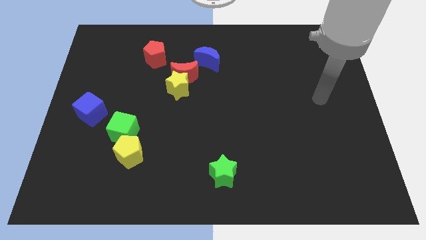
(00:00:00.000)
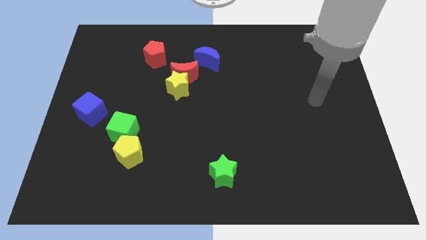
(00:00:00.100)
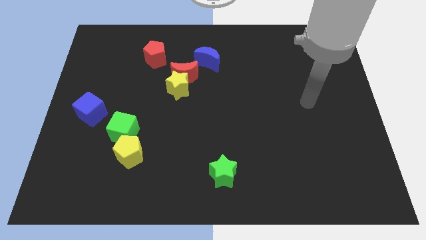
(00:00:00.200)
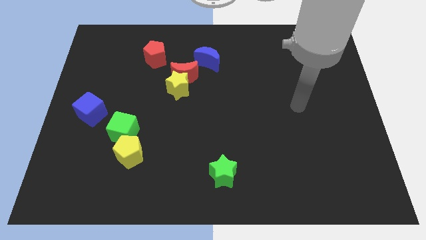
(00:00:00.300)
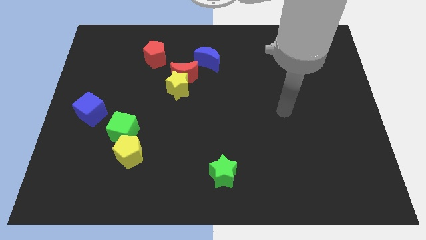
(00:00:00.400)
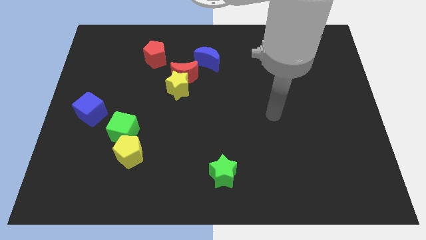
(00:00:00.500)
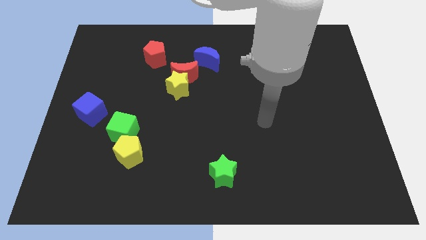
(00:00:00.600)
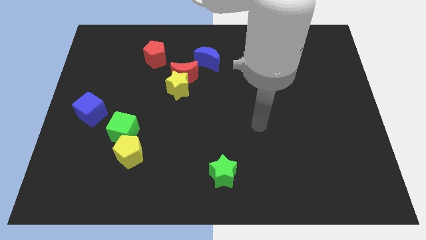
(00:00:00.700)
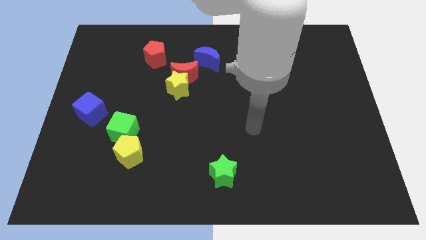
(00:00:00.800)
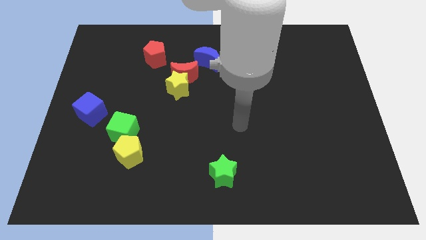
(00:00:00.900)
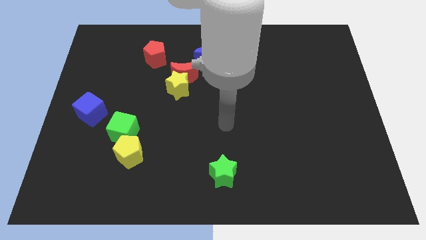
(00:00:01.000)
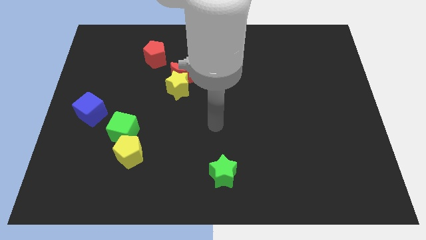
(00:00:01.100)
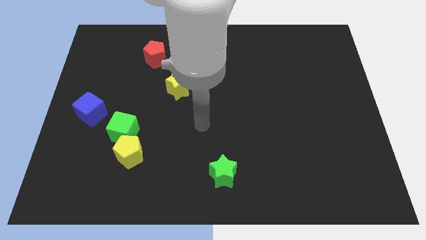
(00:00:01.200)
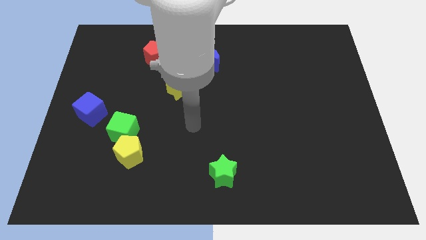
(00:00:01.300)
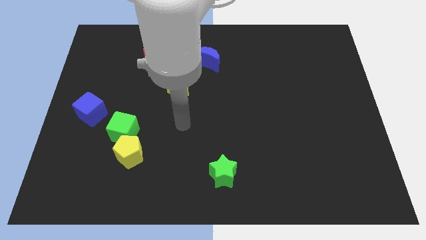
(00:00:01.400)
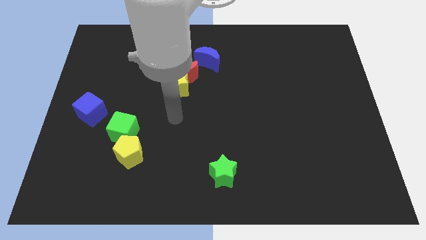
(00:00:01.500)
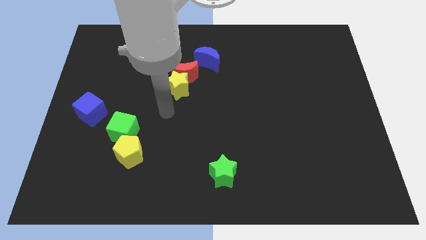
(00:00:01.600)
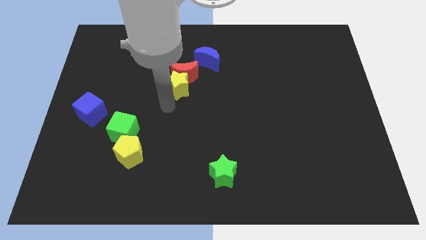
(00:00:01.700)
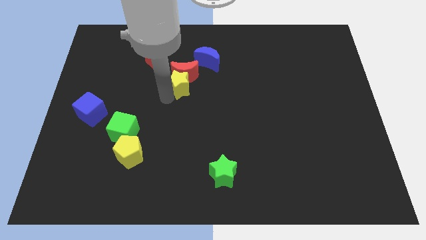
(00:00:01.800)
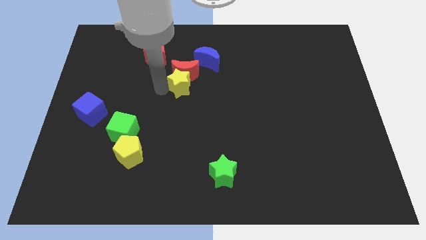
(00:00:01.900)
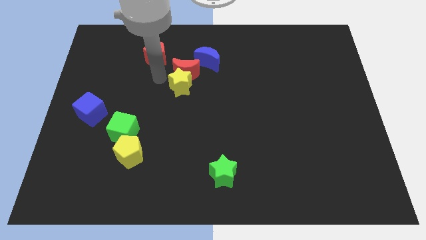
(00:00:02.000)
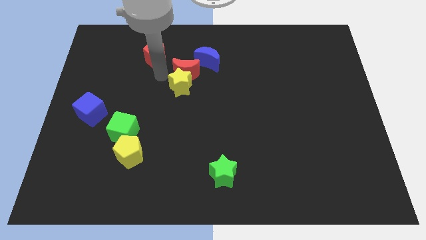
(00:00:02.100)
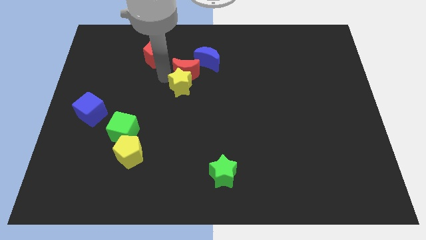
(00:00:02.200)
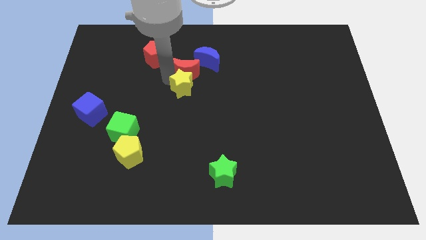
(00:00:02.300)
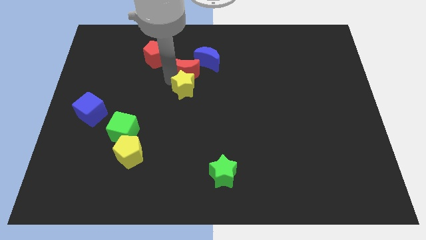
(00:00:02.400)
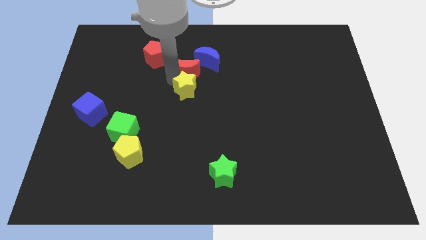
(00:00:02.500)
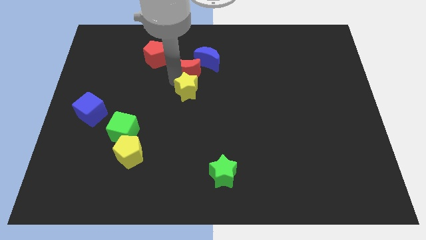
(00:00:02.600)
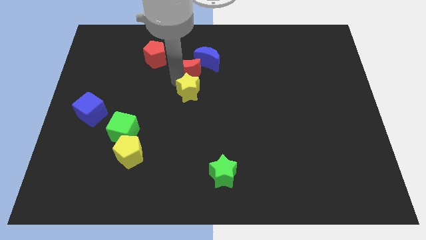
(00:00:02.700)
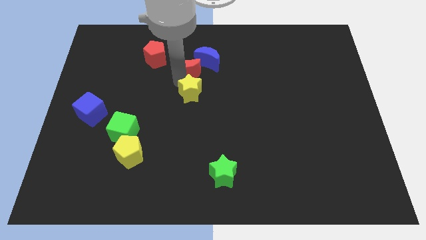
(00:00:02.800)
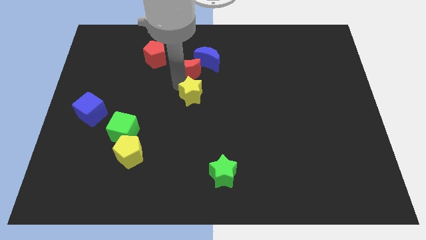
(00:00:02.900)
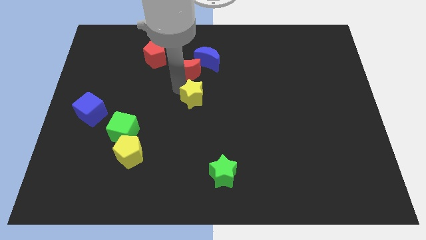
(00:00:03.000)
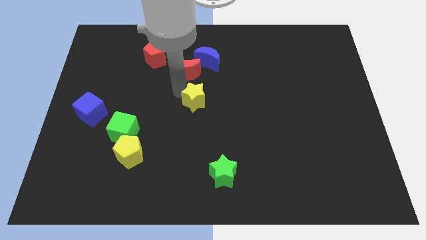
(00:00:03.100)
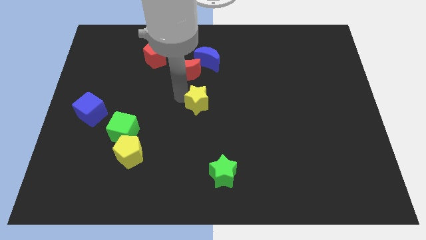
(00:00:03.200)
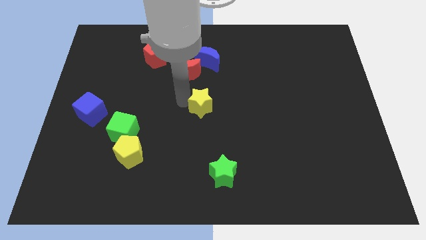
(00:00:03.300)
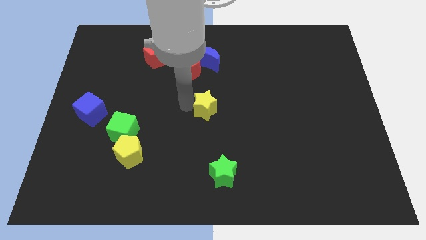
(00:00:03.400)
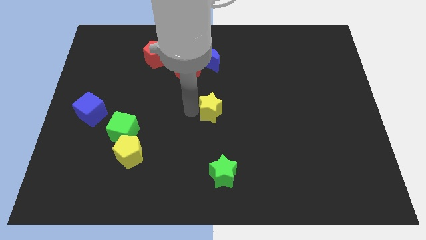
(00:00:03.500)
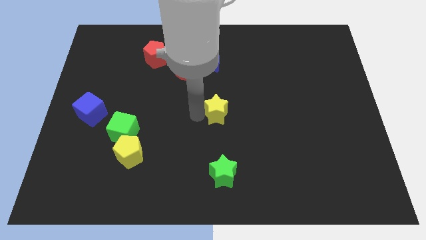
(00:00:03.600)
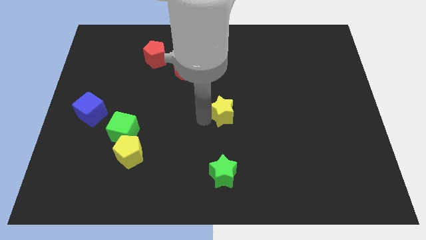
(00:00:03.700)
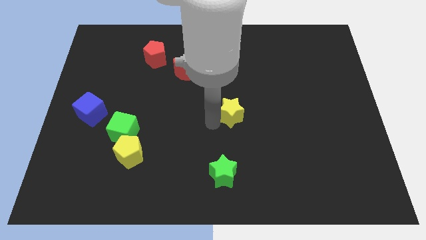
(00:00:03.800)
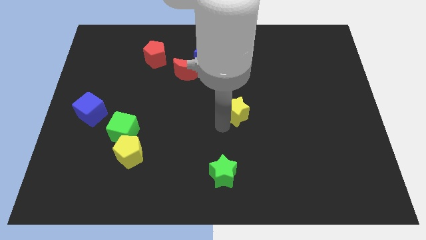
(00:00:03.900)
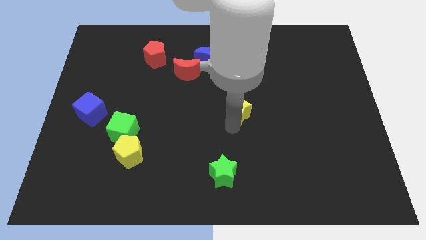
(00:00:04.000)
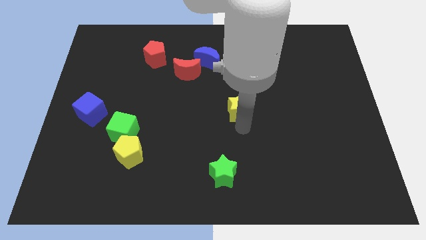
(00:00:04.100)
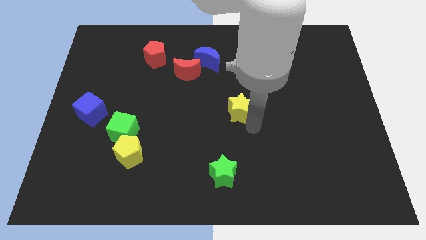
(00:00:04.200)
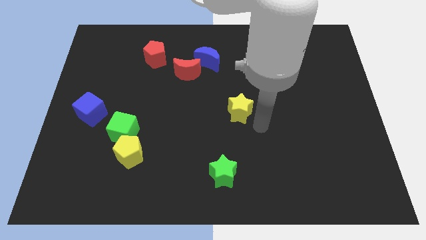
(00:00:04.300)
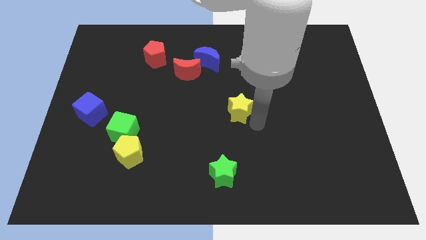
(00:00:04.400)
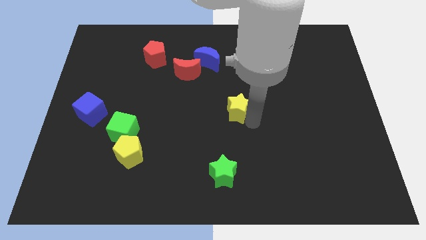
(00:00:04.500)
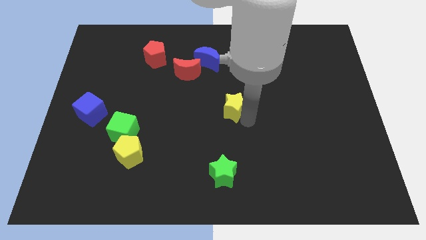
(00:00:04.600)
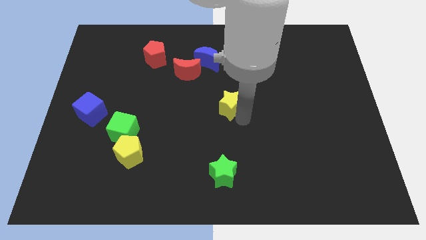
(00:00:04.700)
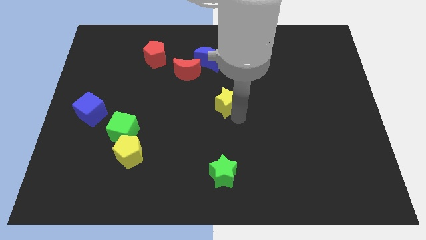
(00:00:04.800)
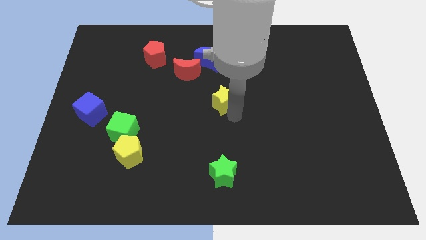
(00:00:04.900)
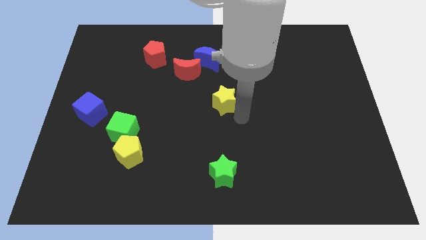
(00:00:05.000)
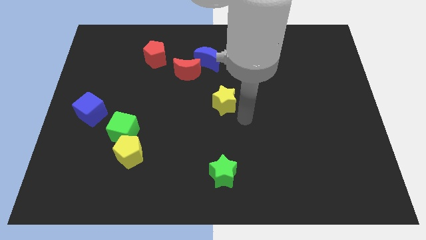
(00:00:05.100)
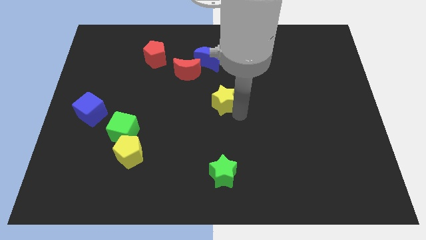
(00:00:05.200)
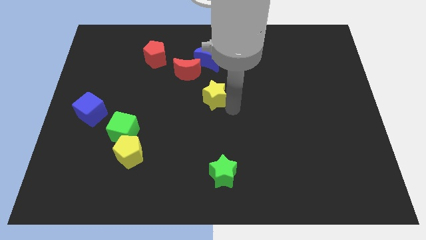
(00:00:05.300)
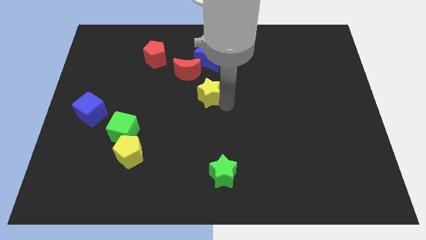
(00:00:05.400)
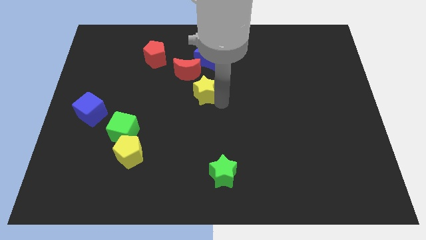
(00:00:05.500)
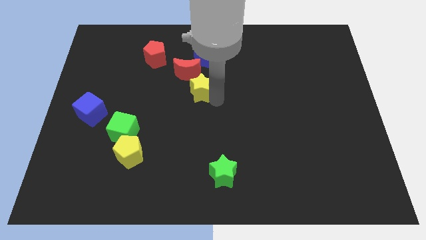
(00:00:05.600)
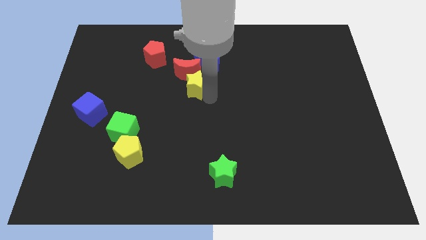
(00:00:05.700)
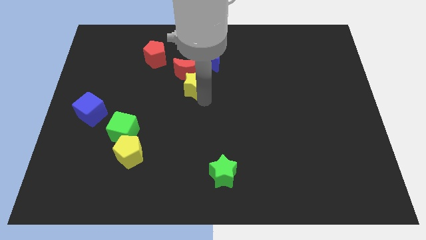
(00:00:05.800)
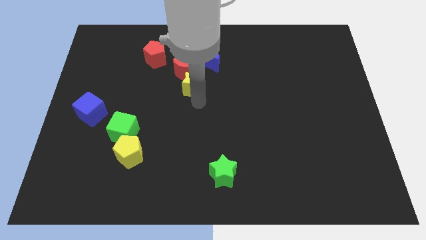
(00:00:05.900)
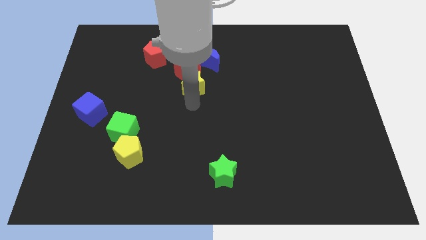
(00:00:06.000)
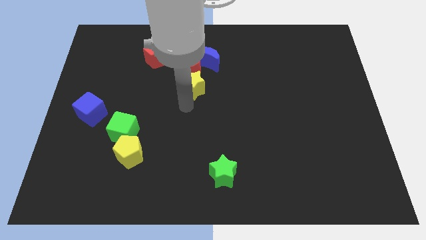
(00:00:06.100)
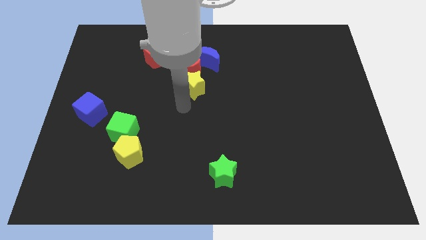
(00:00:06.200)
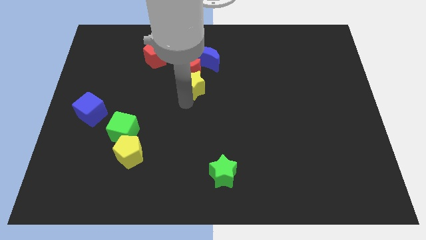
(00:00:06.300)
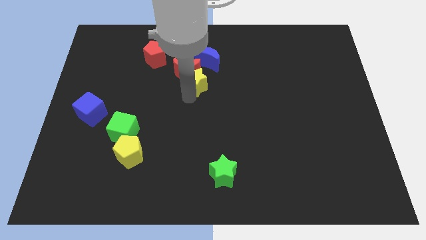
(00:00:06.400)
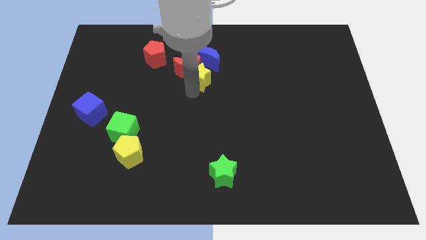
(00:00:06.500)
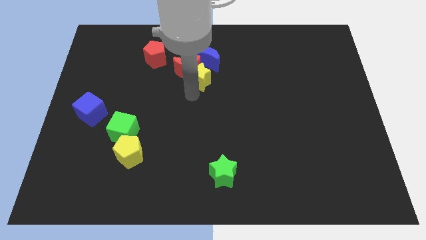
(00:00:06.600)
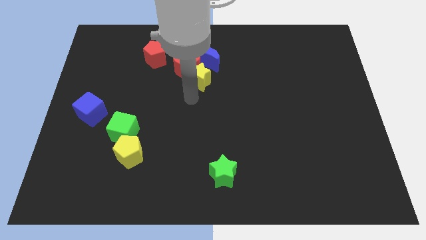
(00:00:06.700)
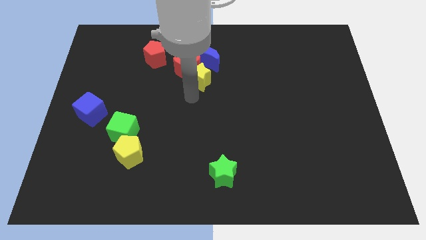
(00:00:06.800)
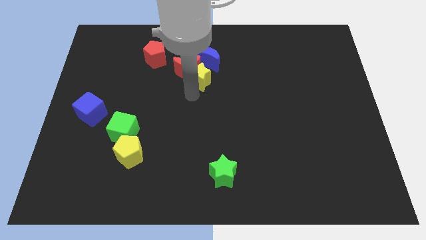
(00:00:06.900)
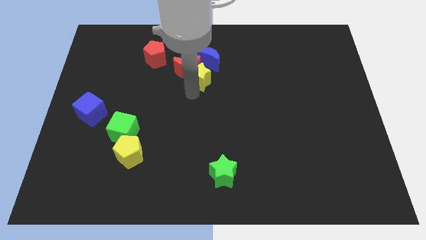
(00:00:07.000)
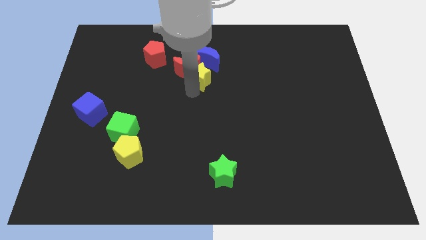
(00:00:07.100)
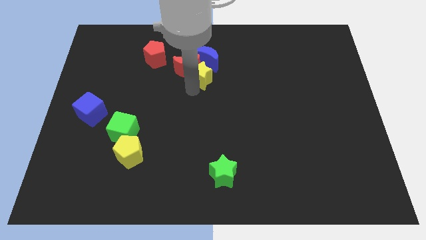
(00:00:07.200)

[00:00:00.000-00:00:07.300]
push the yellow star close to the blue moon

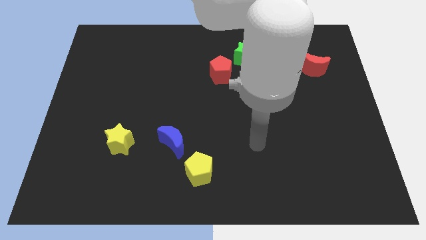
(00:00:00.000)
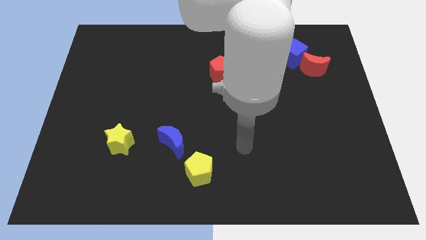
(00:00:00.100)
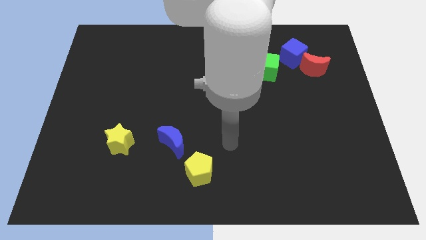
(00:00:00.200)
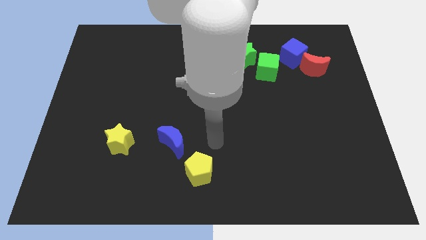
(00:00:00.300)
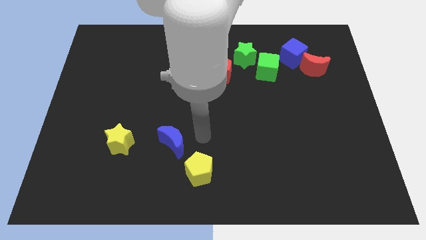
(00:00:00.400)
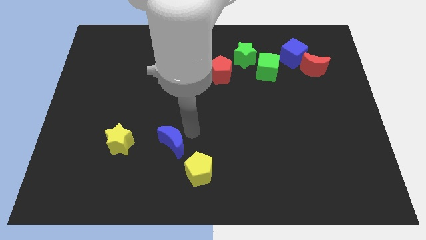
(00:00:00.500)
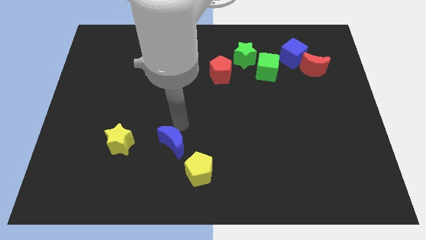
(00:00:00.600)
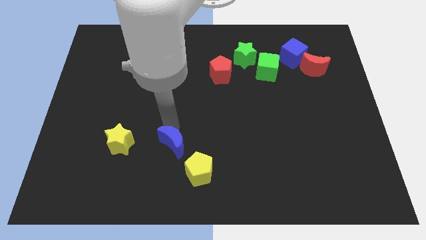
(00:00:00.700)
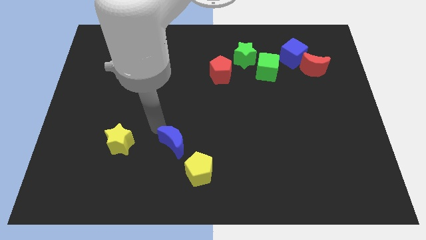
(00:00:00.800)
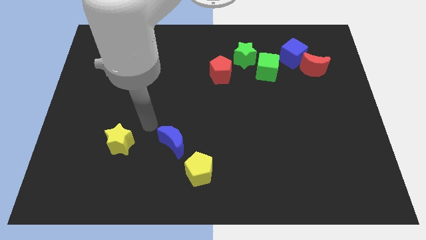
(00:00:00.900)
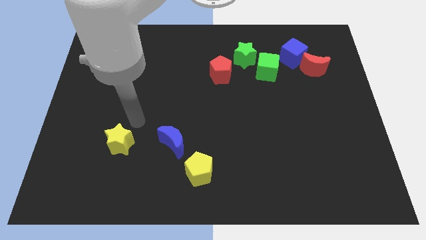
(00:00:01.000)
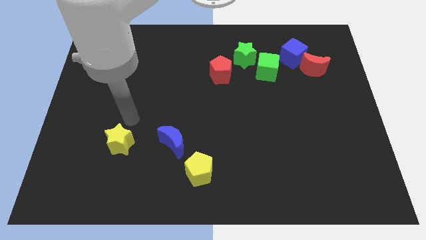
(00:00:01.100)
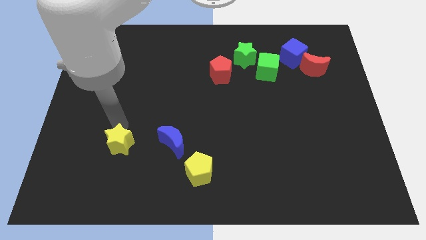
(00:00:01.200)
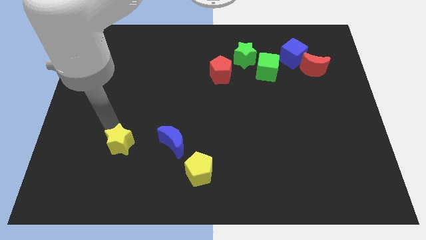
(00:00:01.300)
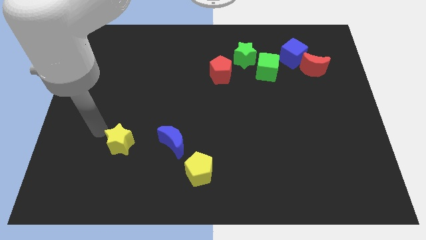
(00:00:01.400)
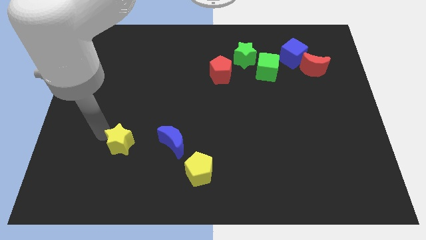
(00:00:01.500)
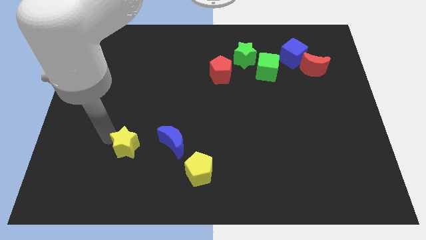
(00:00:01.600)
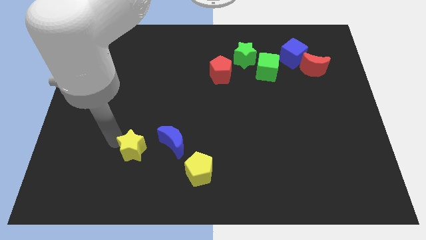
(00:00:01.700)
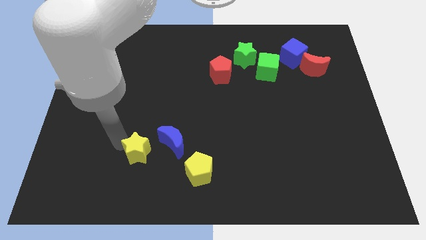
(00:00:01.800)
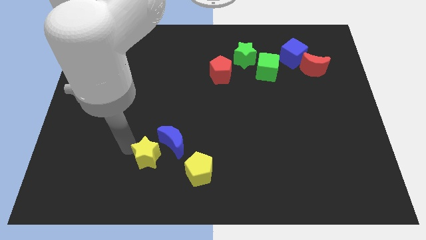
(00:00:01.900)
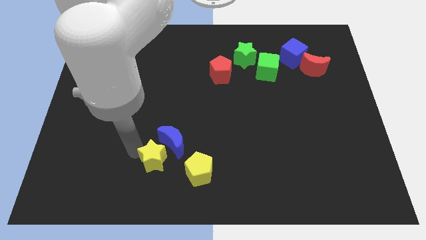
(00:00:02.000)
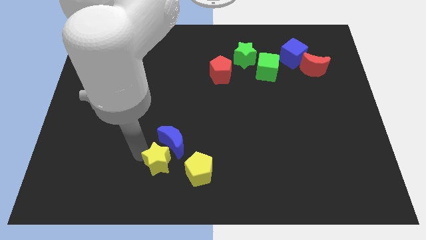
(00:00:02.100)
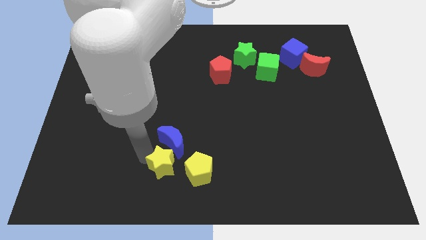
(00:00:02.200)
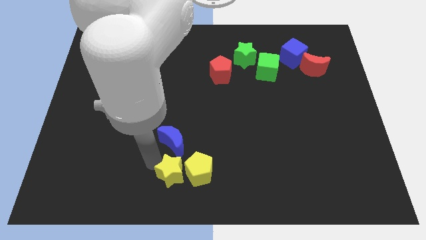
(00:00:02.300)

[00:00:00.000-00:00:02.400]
push the yellow star close to the yellow pentagon
